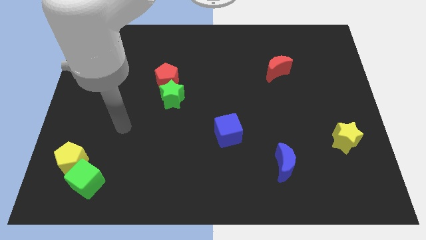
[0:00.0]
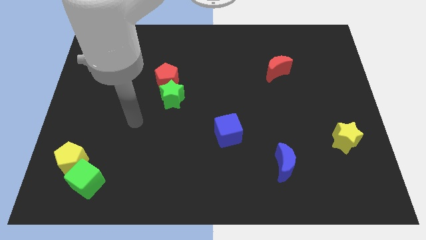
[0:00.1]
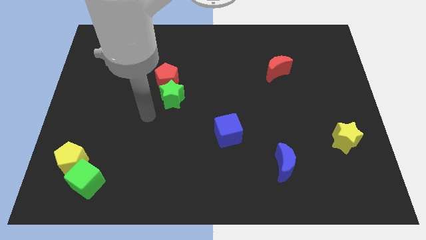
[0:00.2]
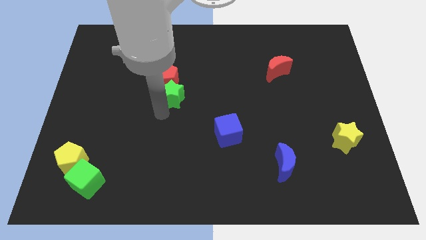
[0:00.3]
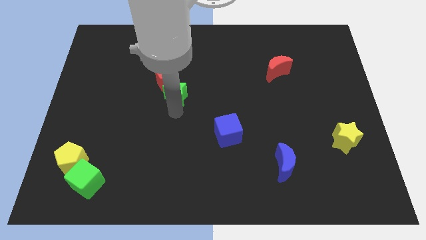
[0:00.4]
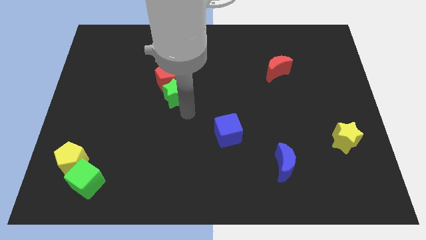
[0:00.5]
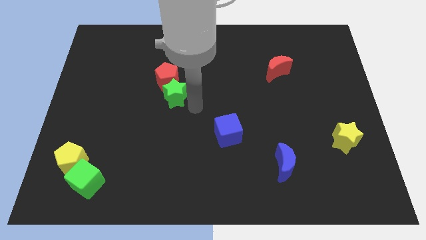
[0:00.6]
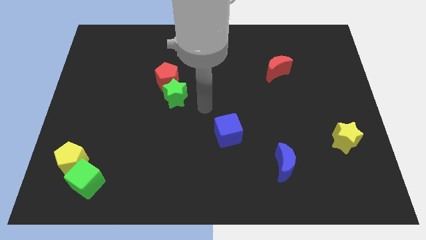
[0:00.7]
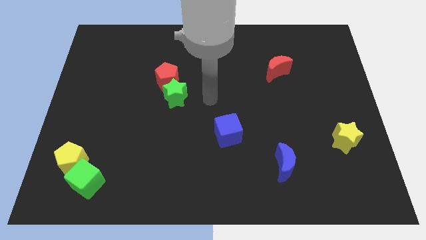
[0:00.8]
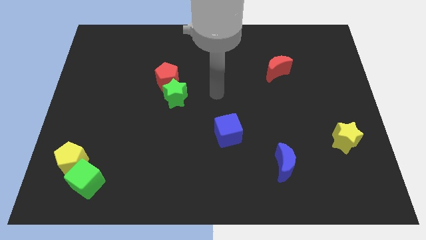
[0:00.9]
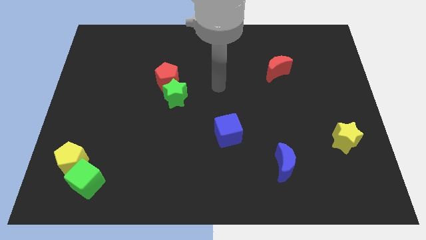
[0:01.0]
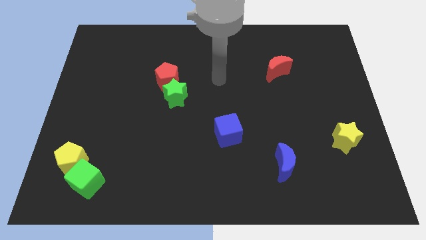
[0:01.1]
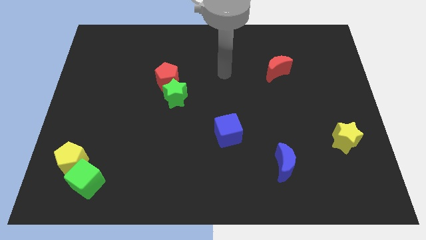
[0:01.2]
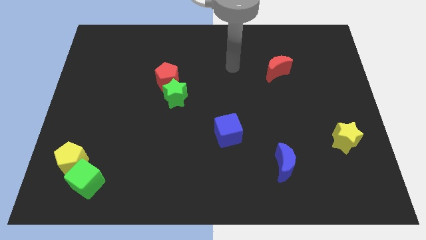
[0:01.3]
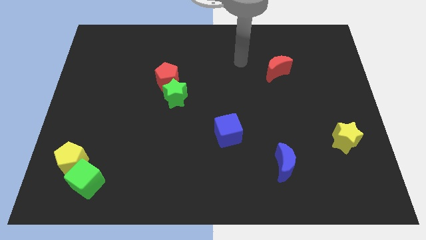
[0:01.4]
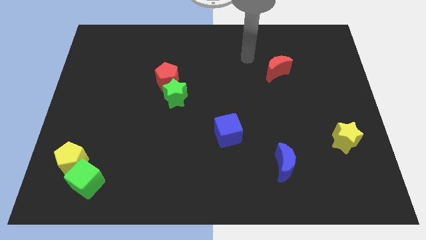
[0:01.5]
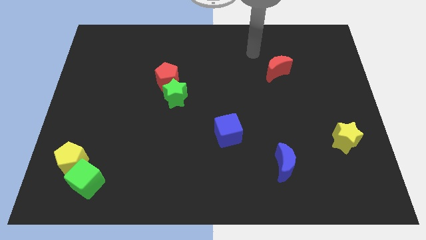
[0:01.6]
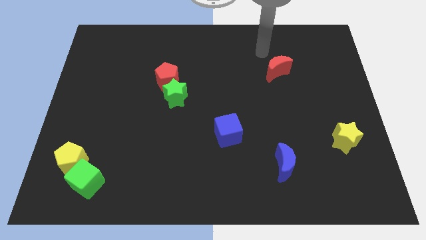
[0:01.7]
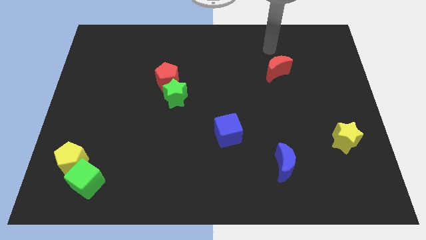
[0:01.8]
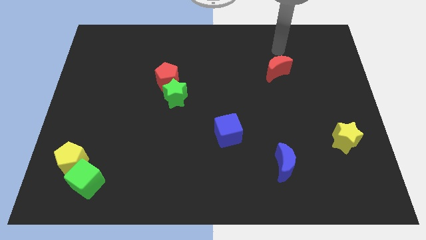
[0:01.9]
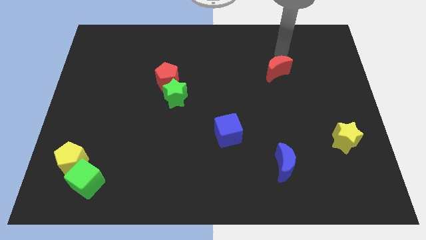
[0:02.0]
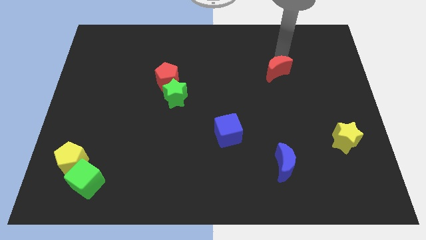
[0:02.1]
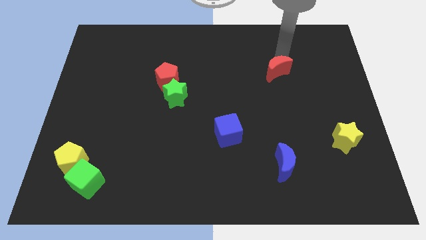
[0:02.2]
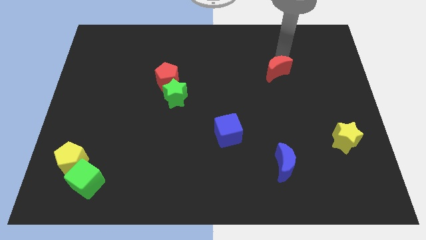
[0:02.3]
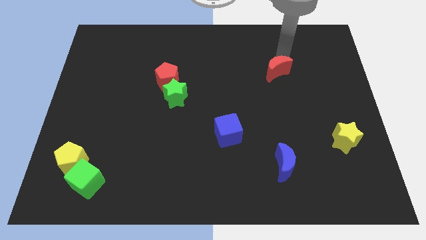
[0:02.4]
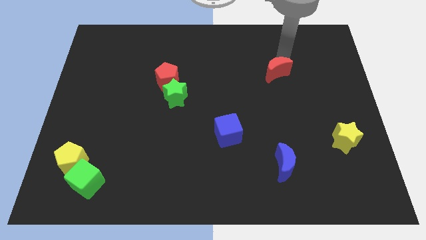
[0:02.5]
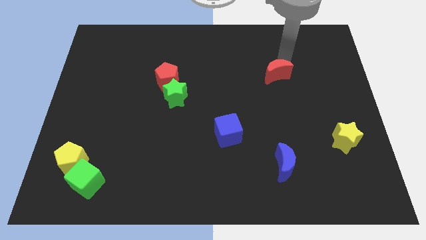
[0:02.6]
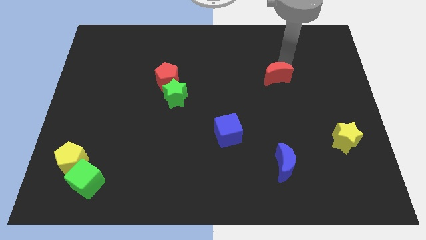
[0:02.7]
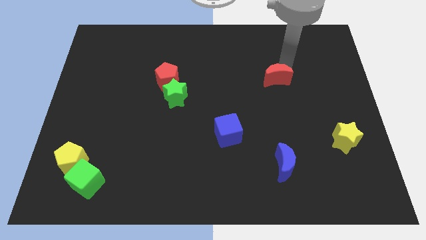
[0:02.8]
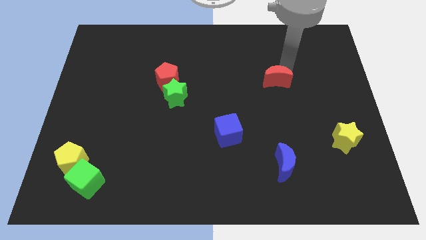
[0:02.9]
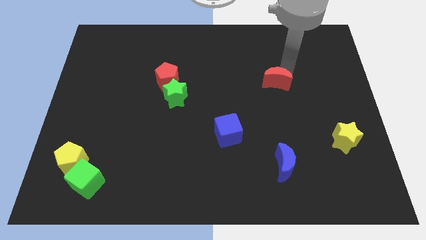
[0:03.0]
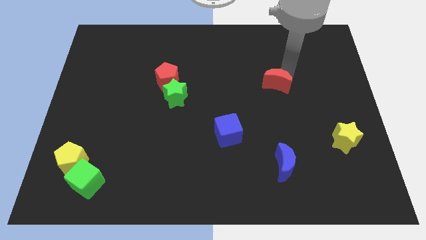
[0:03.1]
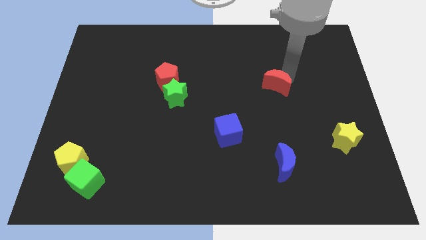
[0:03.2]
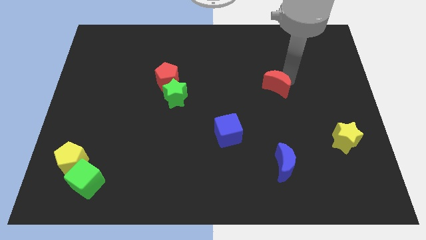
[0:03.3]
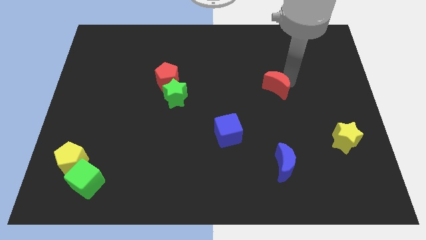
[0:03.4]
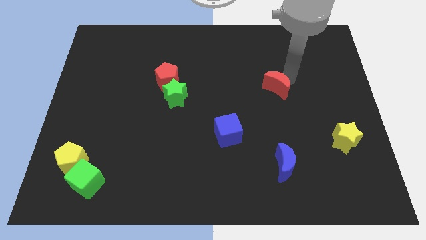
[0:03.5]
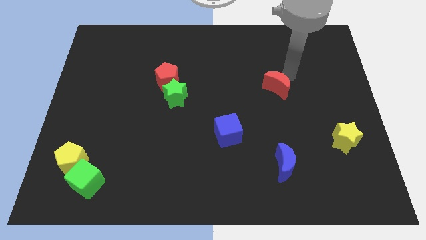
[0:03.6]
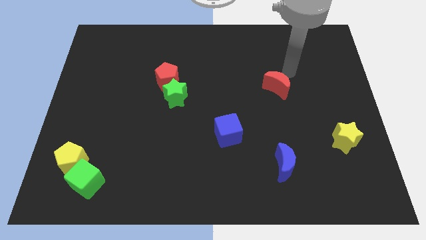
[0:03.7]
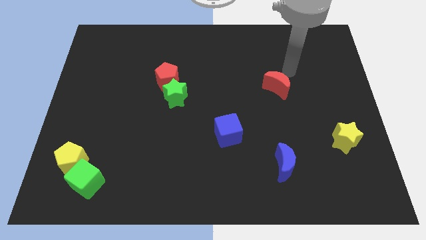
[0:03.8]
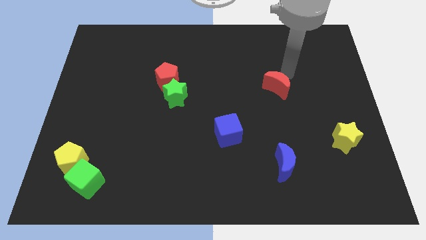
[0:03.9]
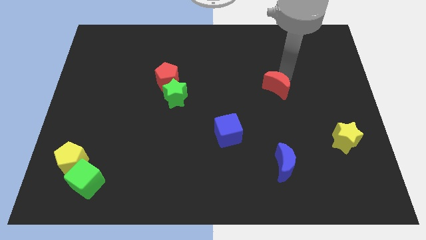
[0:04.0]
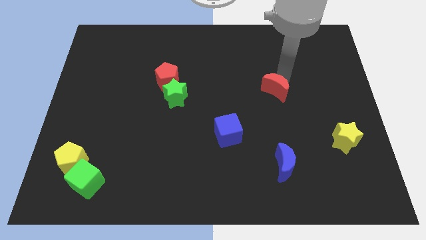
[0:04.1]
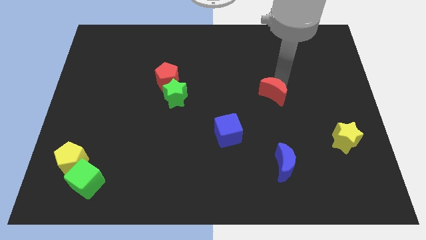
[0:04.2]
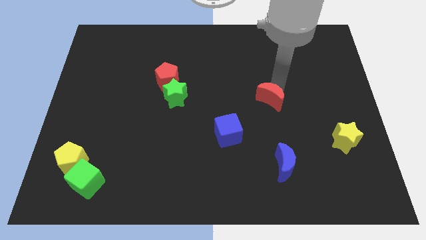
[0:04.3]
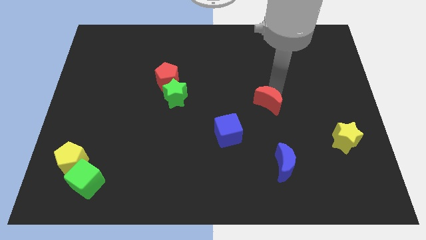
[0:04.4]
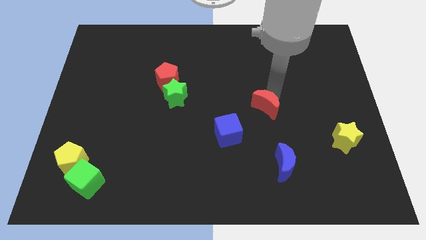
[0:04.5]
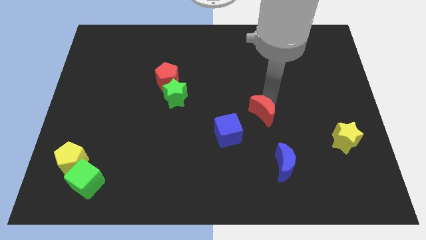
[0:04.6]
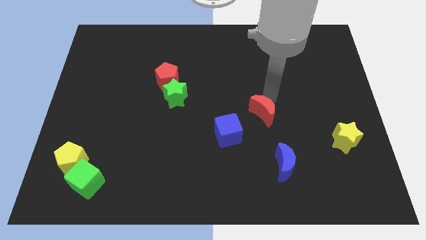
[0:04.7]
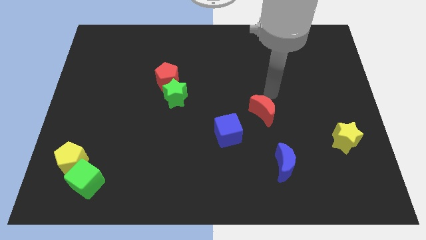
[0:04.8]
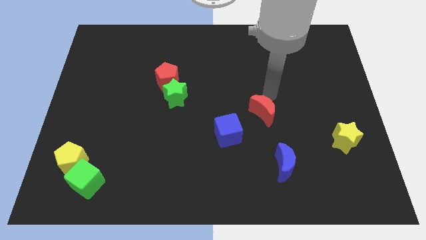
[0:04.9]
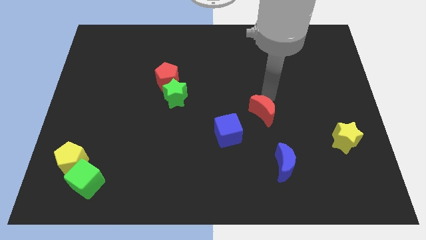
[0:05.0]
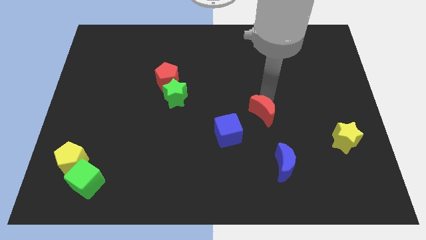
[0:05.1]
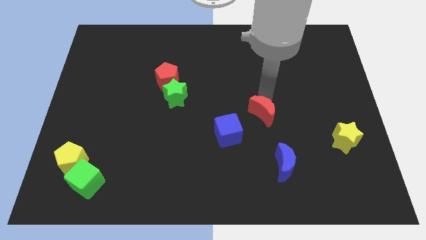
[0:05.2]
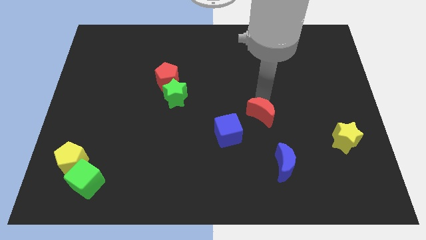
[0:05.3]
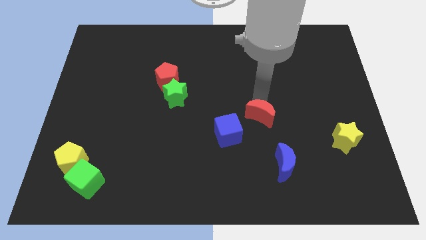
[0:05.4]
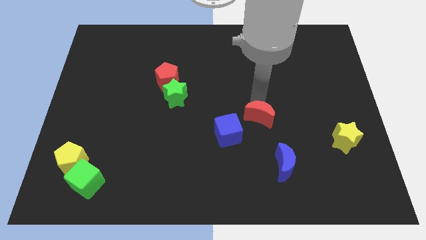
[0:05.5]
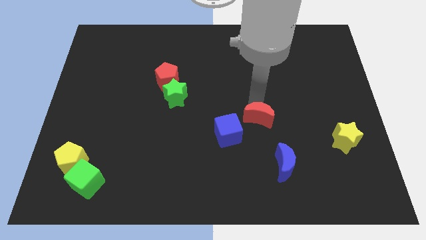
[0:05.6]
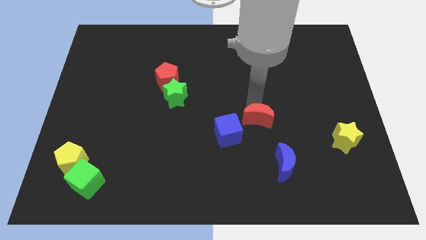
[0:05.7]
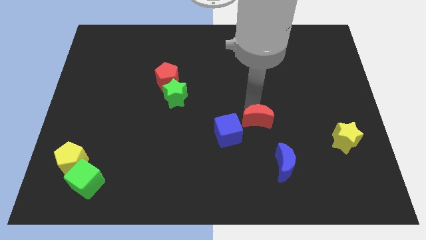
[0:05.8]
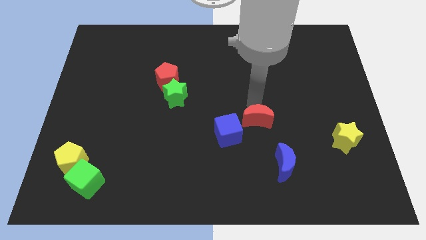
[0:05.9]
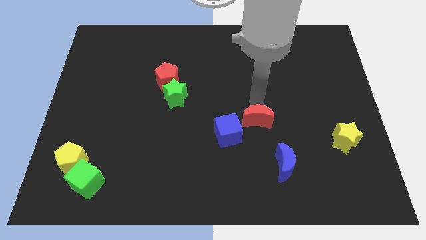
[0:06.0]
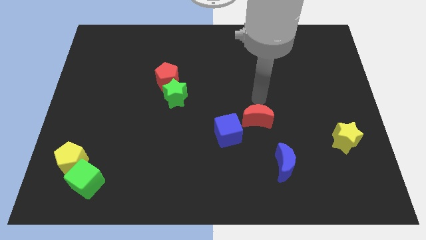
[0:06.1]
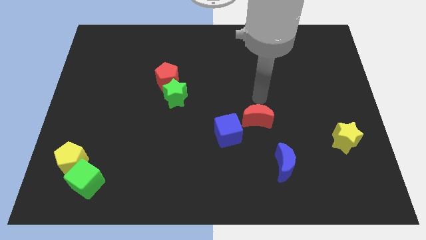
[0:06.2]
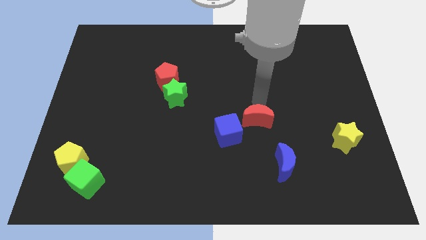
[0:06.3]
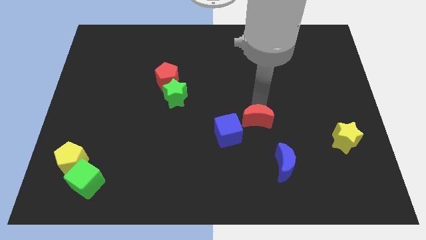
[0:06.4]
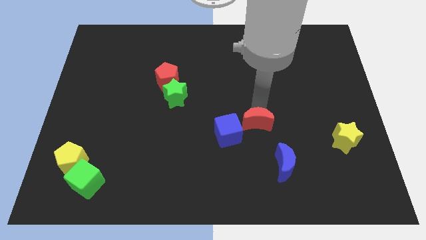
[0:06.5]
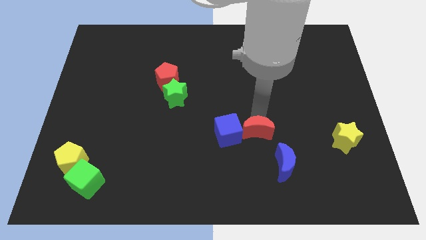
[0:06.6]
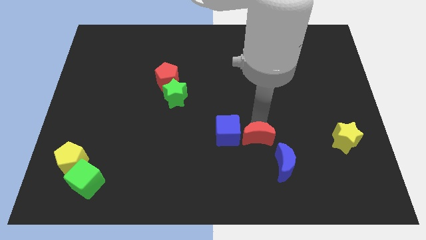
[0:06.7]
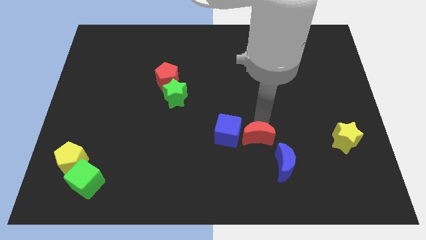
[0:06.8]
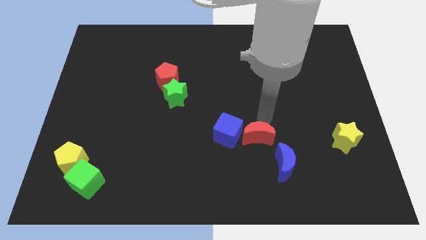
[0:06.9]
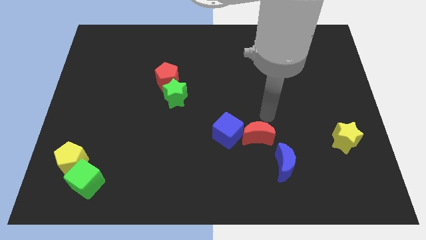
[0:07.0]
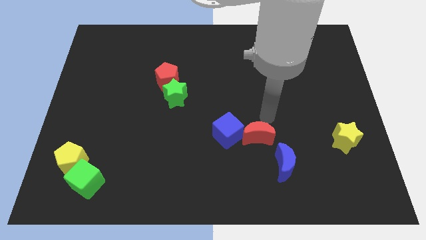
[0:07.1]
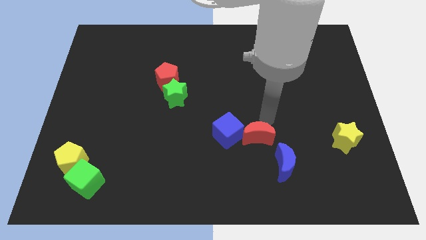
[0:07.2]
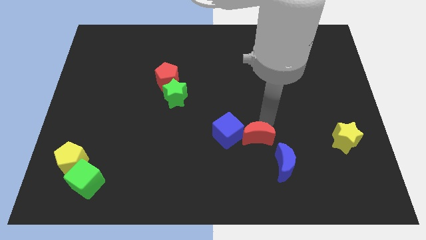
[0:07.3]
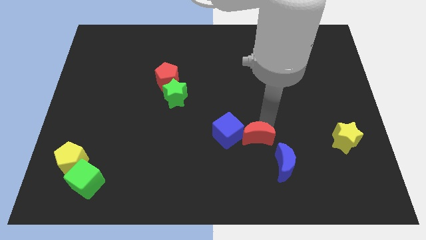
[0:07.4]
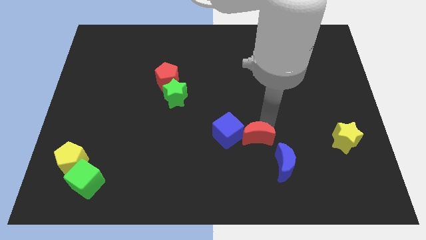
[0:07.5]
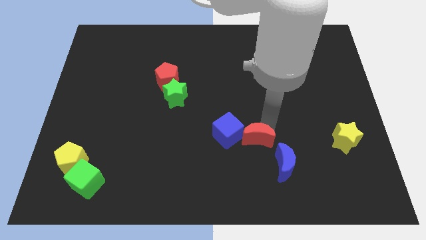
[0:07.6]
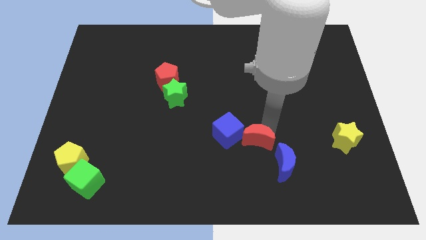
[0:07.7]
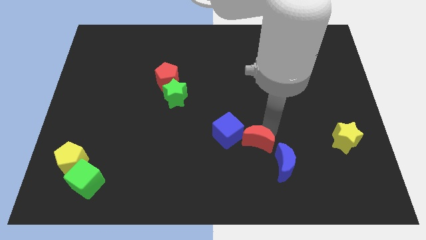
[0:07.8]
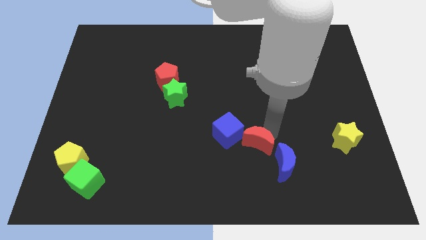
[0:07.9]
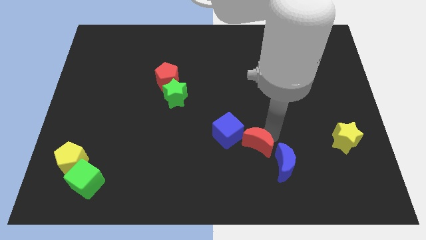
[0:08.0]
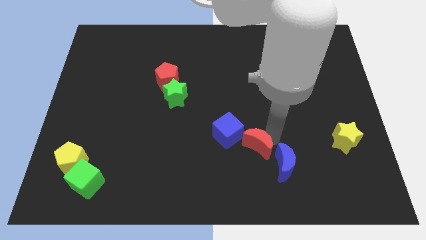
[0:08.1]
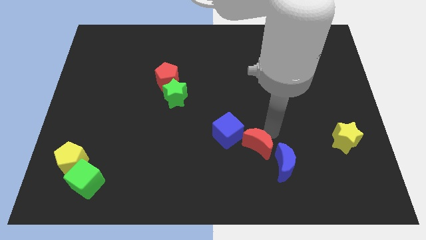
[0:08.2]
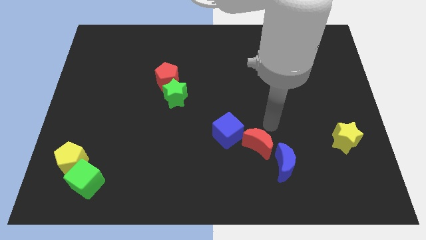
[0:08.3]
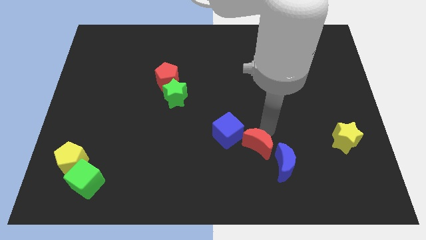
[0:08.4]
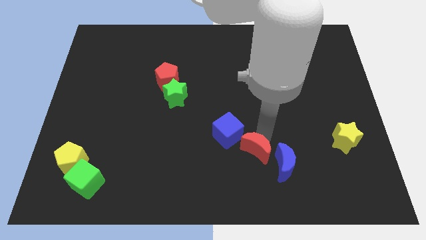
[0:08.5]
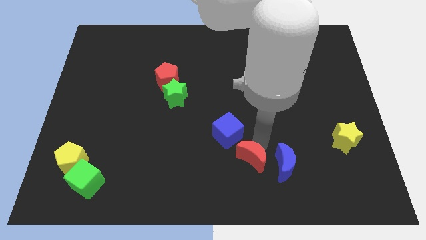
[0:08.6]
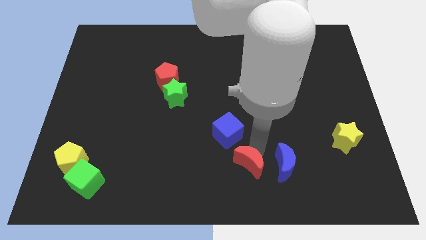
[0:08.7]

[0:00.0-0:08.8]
slide the red moon to the bottom
